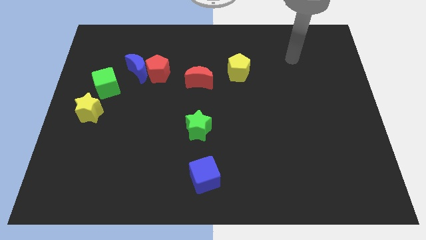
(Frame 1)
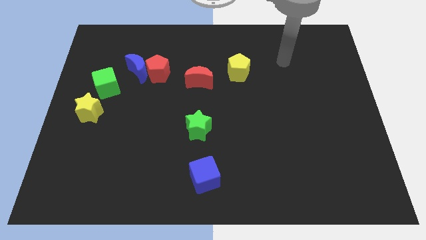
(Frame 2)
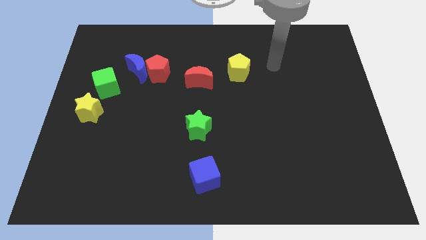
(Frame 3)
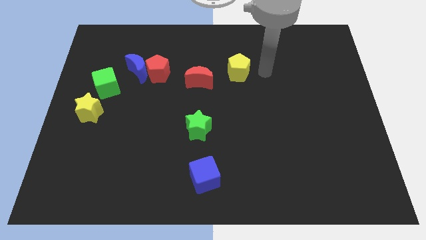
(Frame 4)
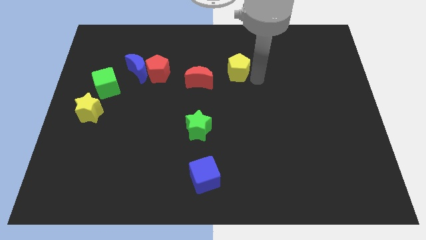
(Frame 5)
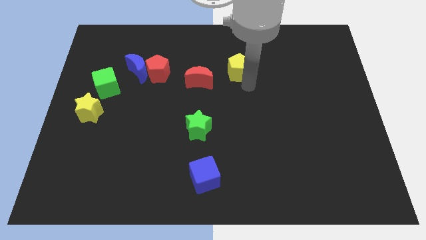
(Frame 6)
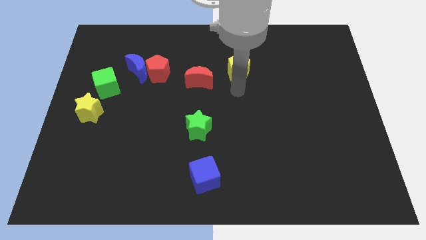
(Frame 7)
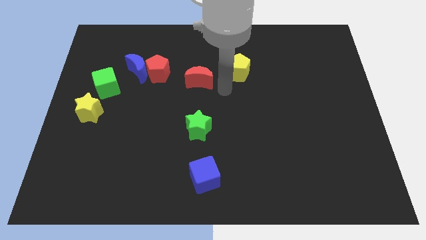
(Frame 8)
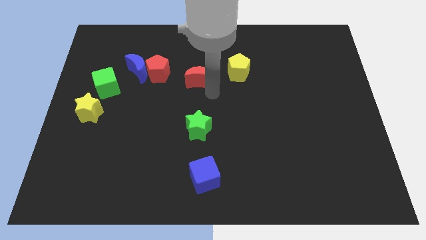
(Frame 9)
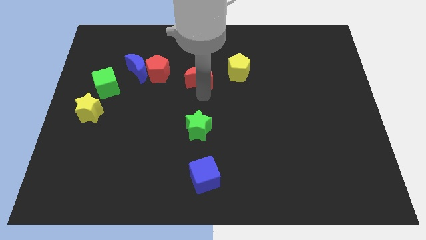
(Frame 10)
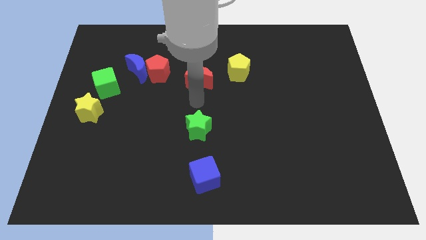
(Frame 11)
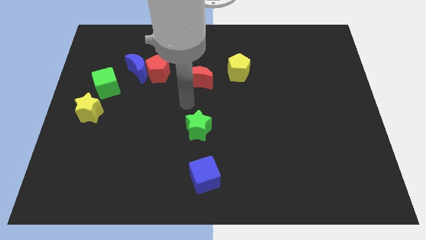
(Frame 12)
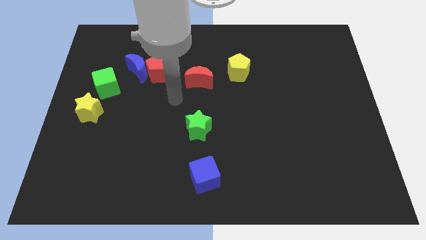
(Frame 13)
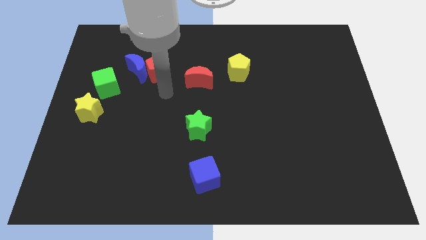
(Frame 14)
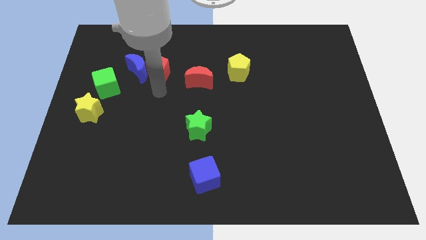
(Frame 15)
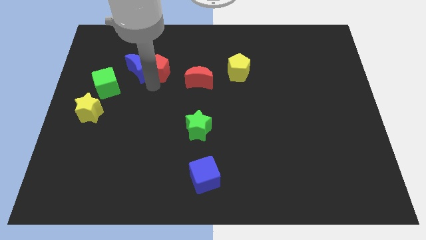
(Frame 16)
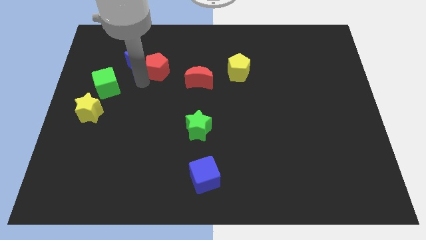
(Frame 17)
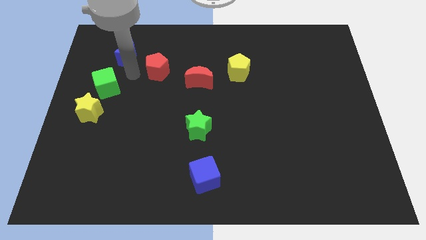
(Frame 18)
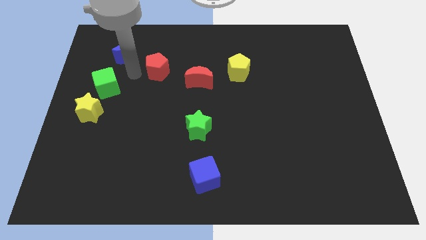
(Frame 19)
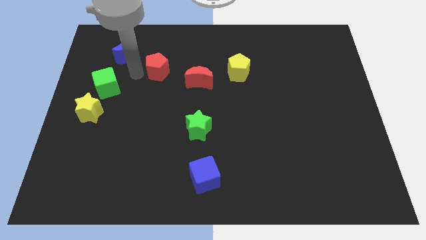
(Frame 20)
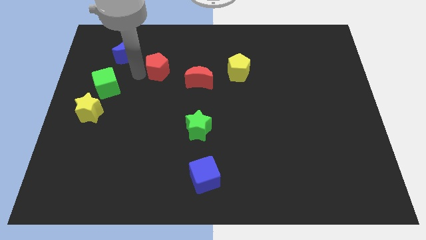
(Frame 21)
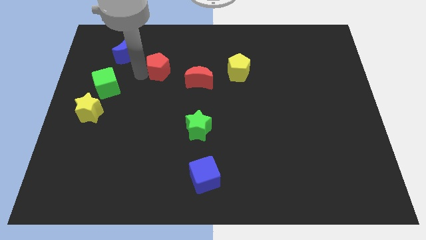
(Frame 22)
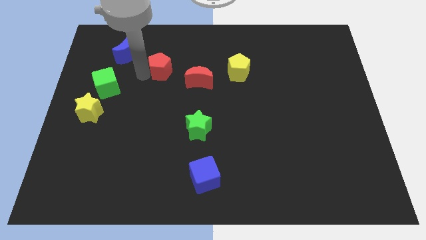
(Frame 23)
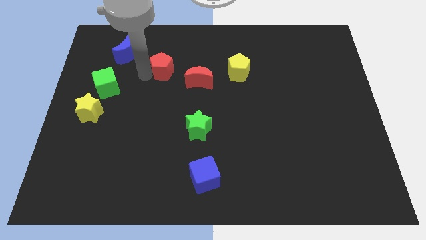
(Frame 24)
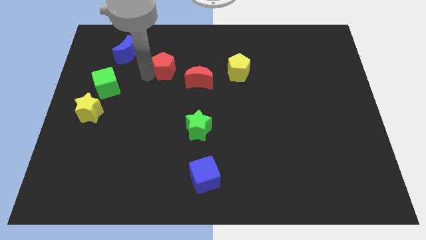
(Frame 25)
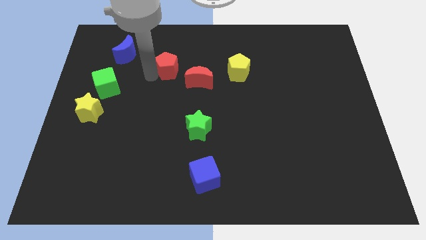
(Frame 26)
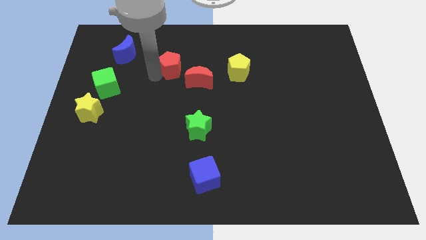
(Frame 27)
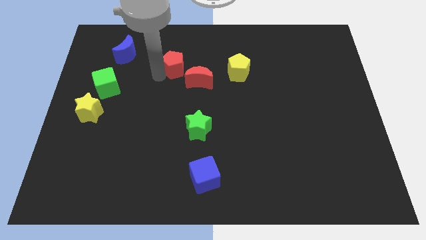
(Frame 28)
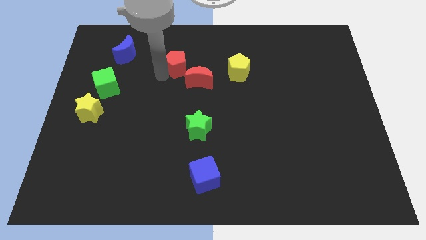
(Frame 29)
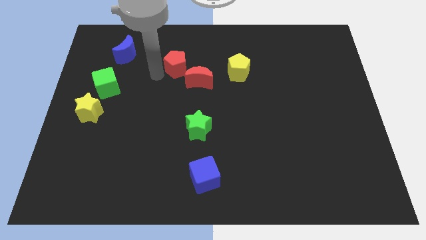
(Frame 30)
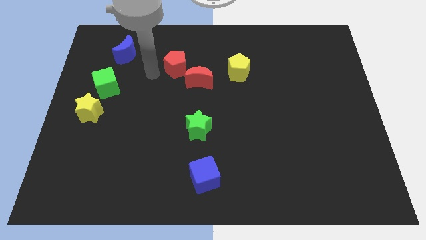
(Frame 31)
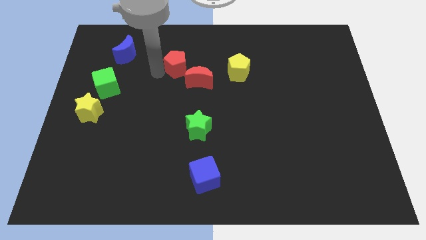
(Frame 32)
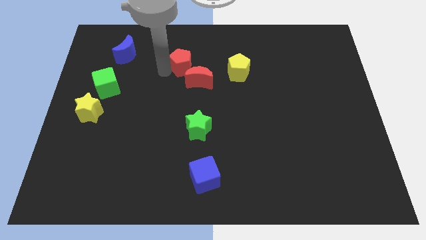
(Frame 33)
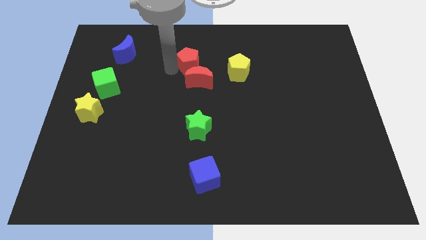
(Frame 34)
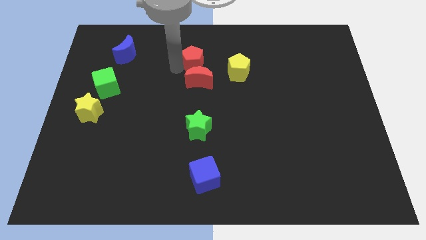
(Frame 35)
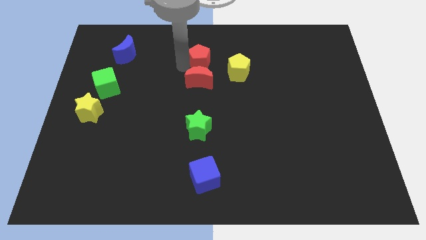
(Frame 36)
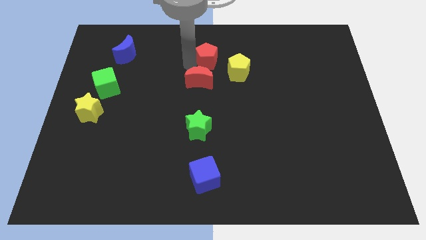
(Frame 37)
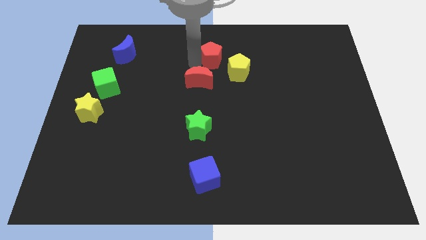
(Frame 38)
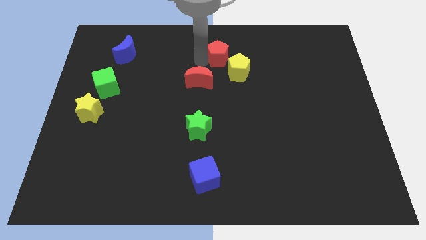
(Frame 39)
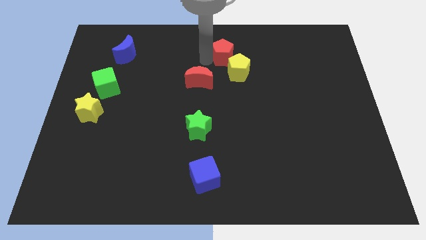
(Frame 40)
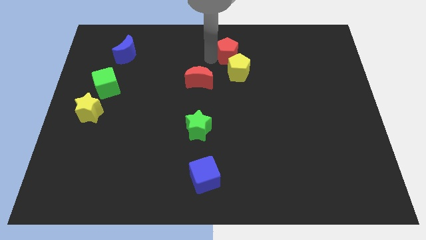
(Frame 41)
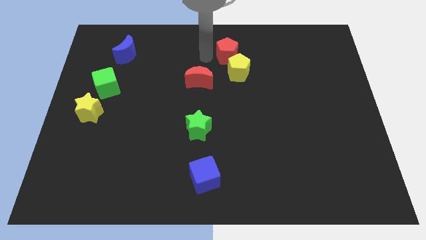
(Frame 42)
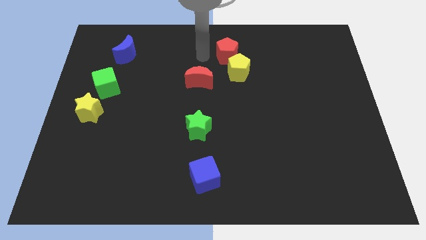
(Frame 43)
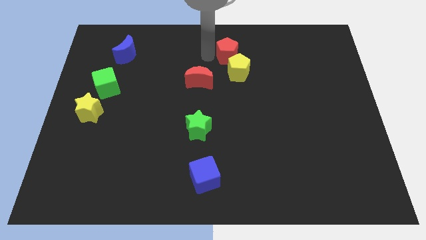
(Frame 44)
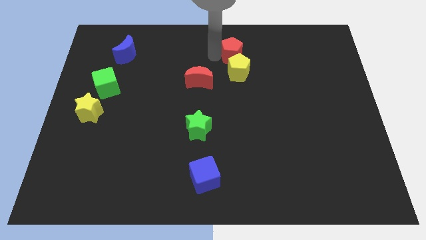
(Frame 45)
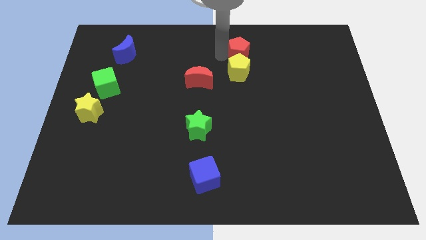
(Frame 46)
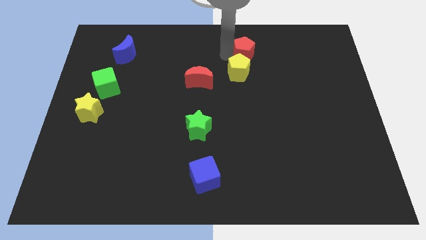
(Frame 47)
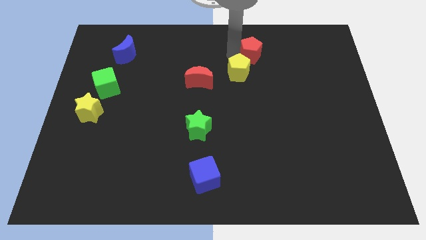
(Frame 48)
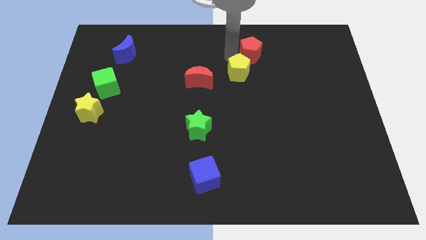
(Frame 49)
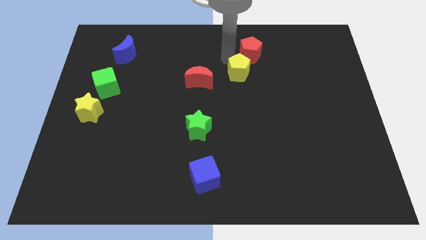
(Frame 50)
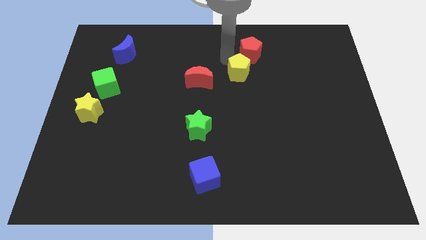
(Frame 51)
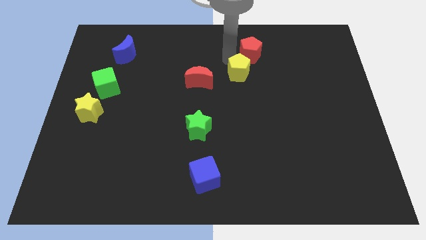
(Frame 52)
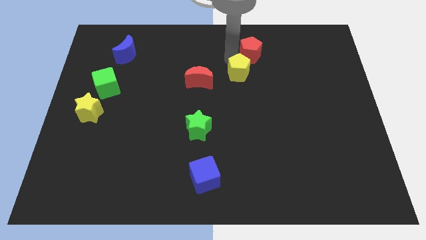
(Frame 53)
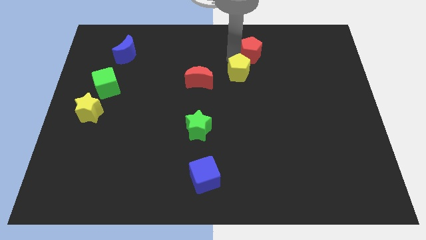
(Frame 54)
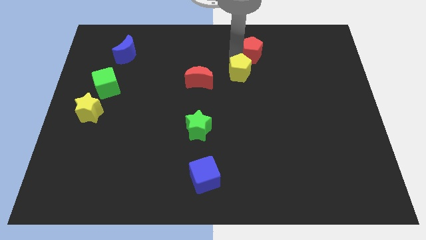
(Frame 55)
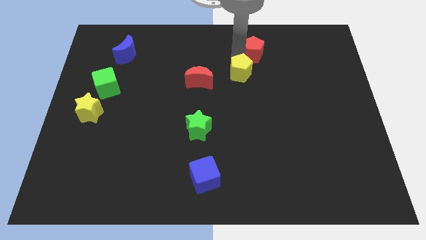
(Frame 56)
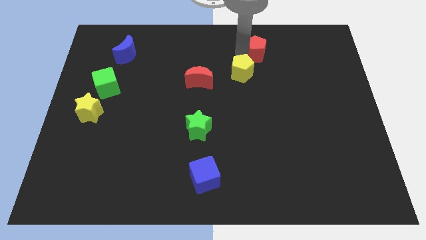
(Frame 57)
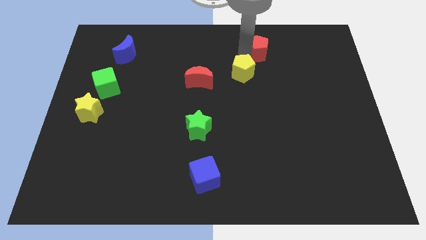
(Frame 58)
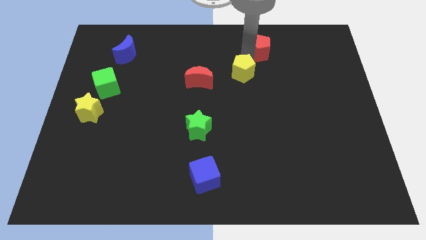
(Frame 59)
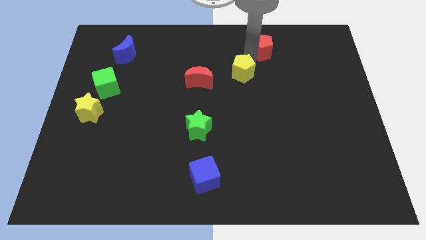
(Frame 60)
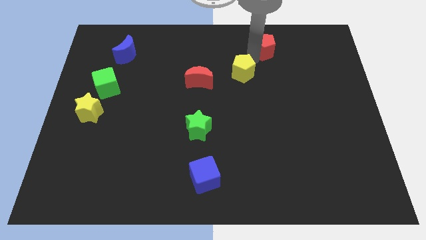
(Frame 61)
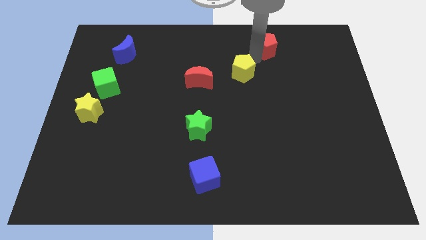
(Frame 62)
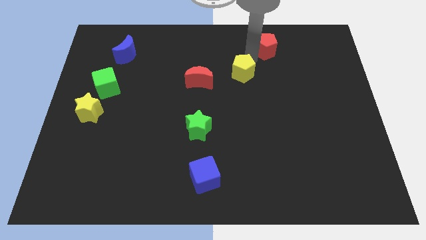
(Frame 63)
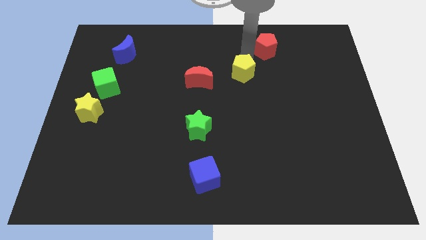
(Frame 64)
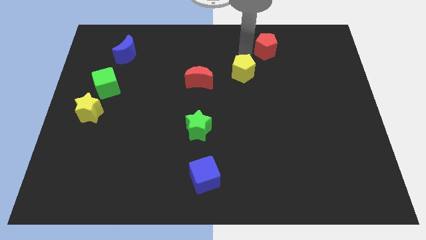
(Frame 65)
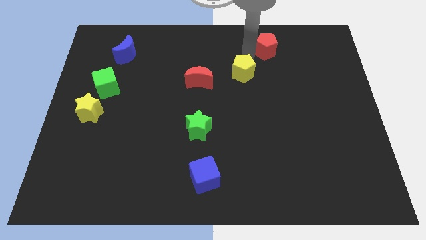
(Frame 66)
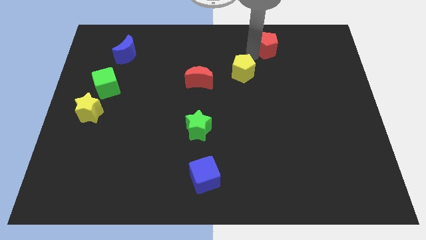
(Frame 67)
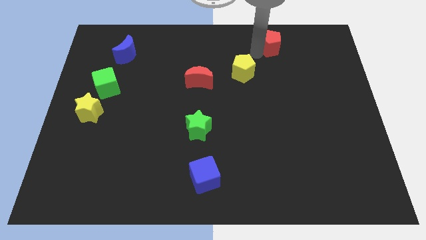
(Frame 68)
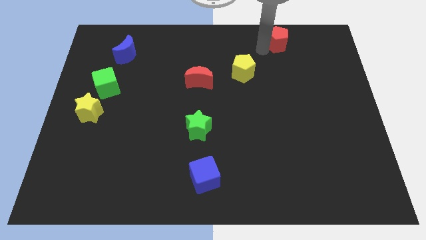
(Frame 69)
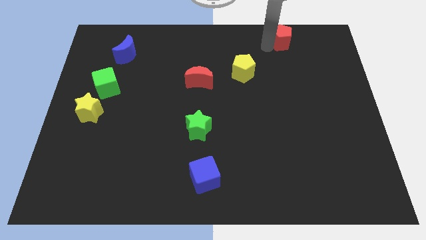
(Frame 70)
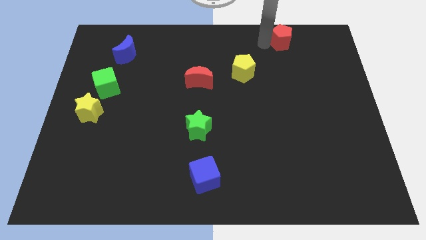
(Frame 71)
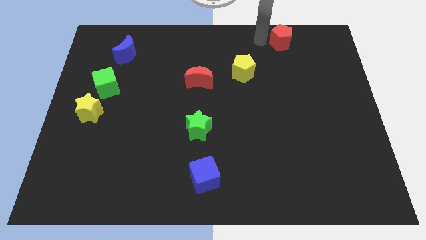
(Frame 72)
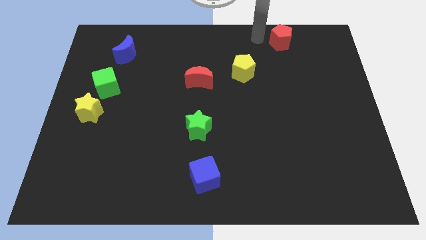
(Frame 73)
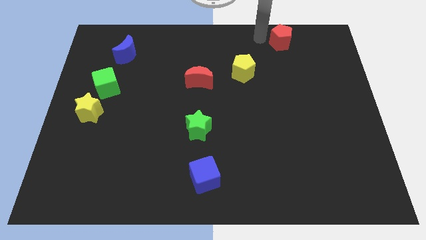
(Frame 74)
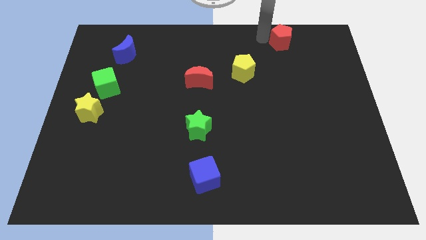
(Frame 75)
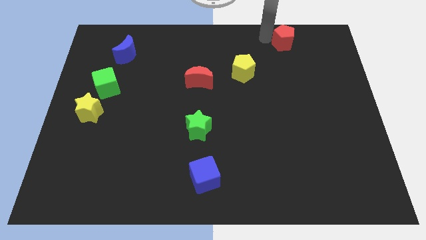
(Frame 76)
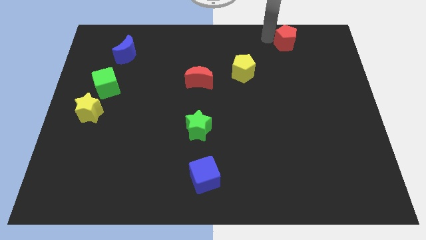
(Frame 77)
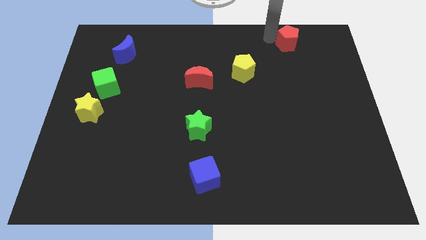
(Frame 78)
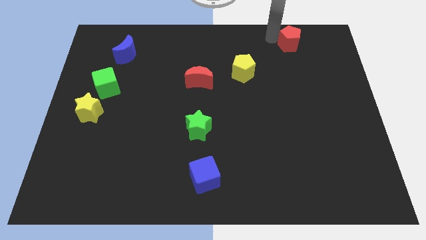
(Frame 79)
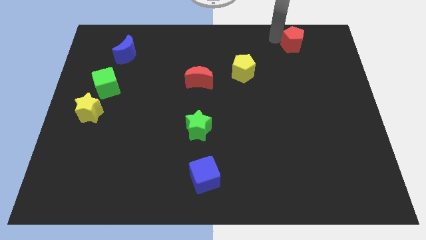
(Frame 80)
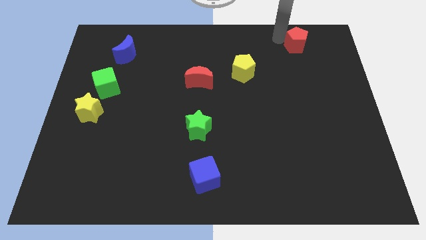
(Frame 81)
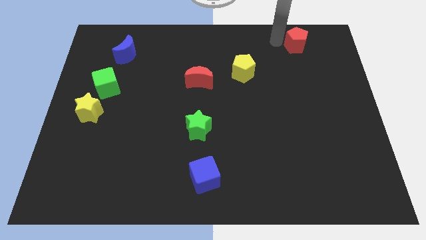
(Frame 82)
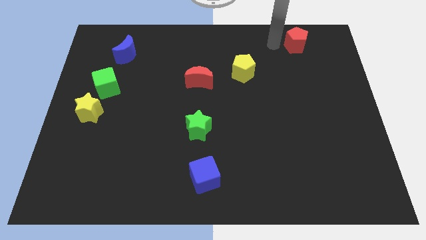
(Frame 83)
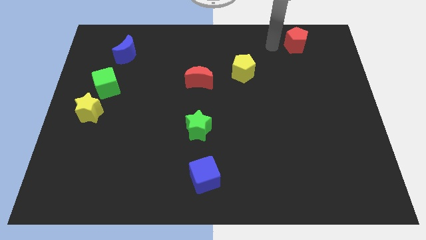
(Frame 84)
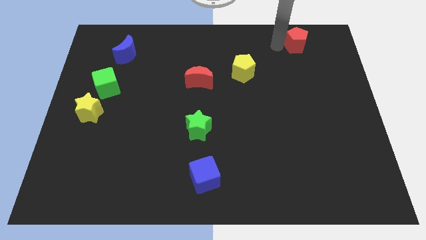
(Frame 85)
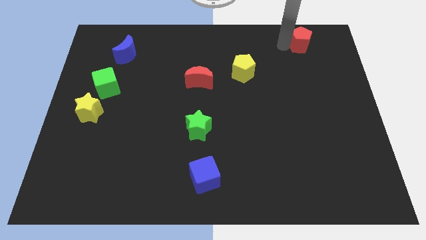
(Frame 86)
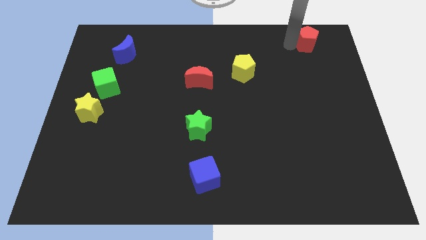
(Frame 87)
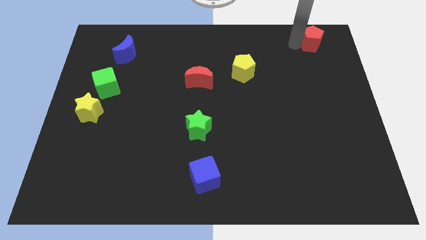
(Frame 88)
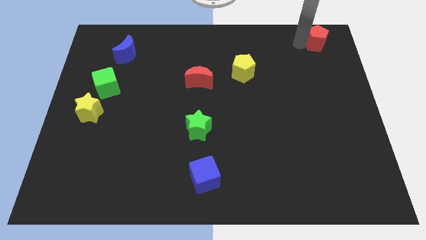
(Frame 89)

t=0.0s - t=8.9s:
put the red pentagon to the top right of the board
